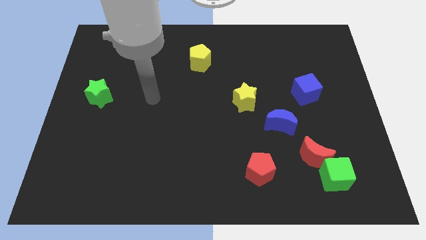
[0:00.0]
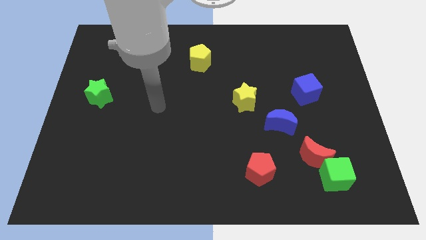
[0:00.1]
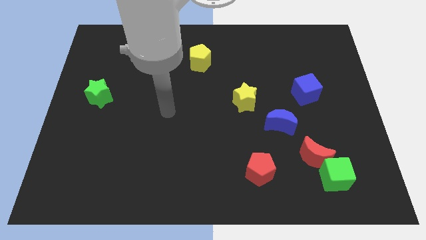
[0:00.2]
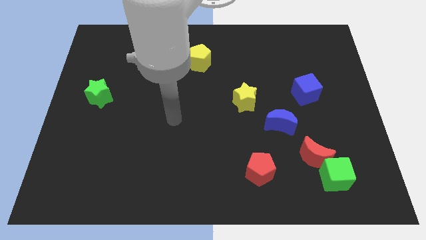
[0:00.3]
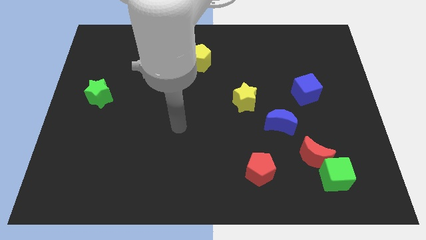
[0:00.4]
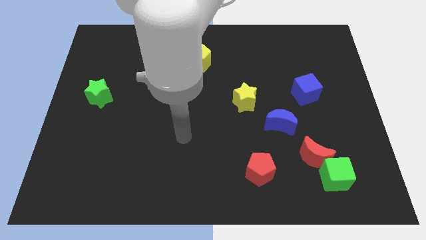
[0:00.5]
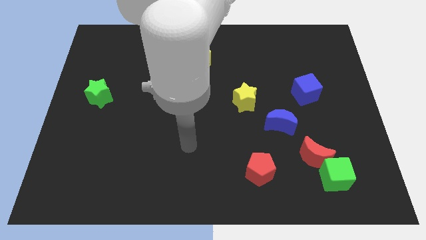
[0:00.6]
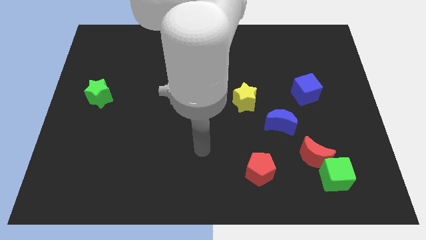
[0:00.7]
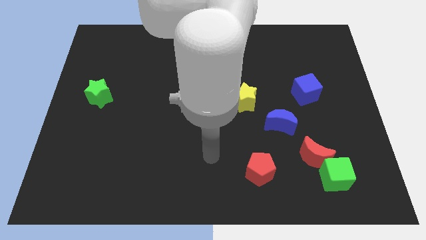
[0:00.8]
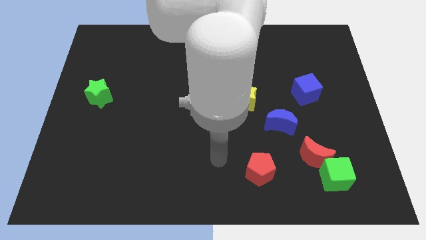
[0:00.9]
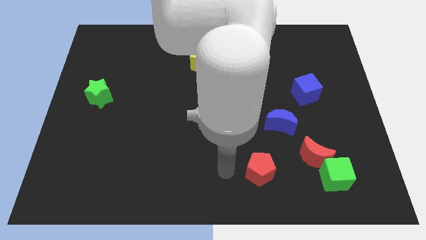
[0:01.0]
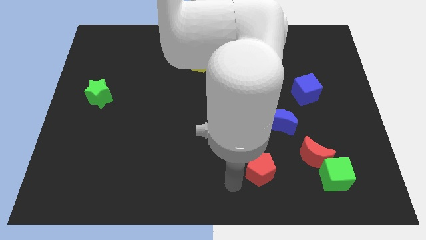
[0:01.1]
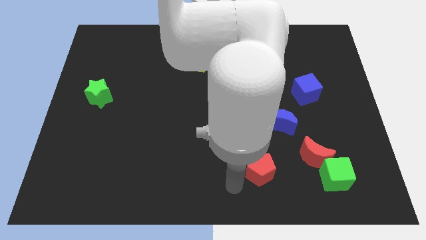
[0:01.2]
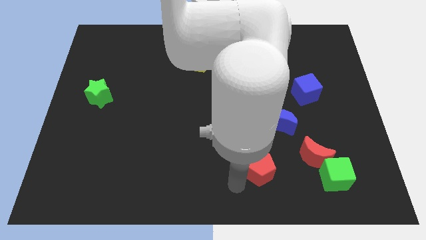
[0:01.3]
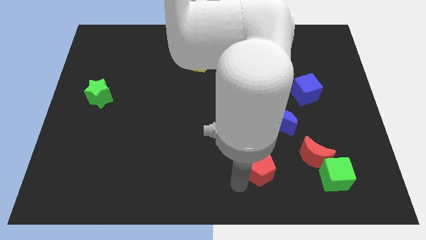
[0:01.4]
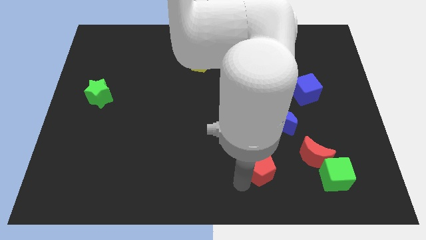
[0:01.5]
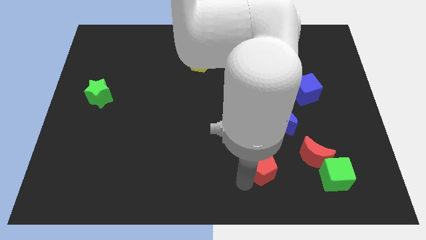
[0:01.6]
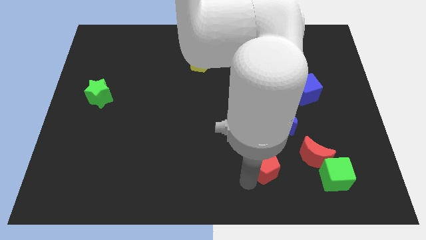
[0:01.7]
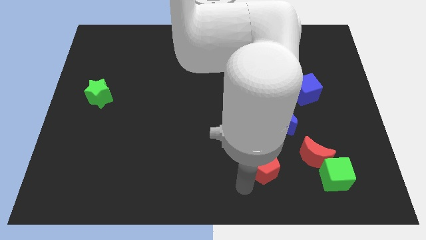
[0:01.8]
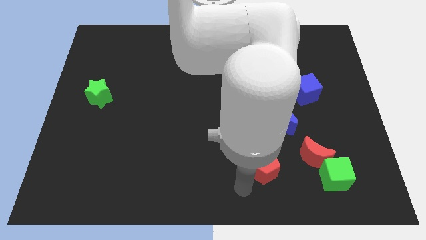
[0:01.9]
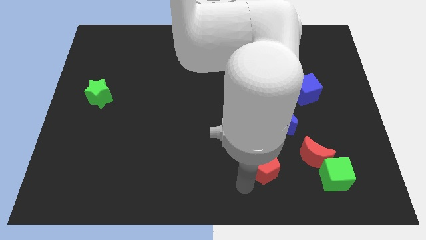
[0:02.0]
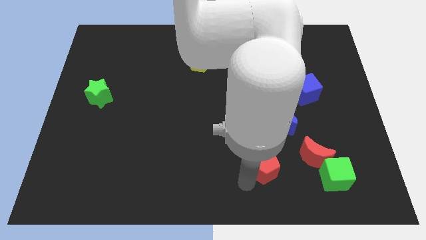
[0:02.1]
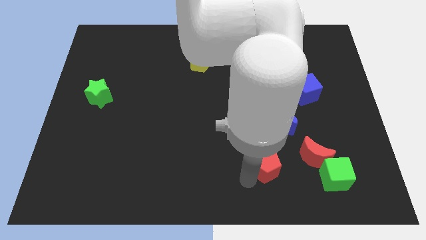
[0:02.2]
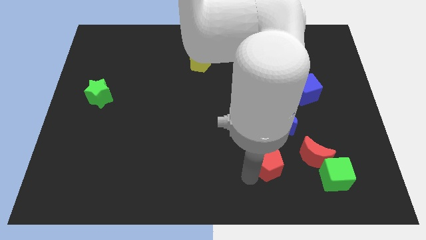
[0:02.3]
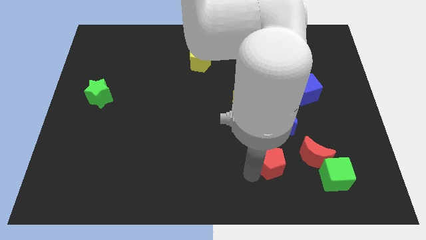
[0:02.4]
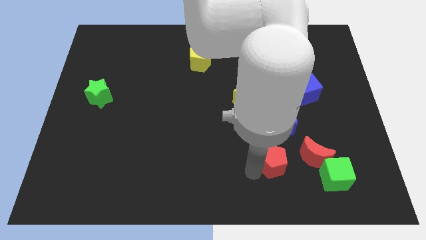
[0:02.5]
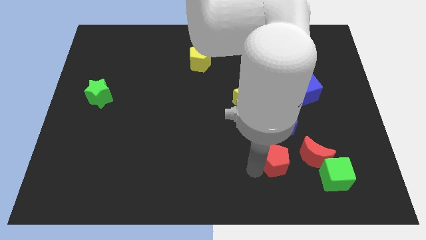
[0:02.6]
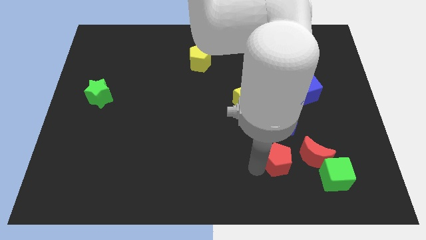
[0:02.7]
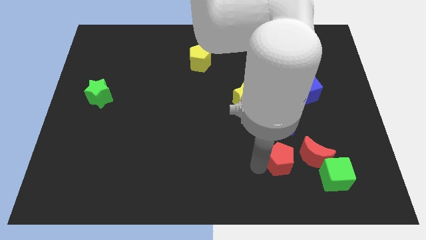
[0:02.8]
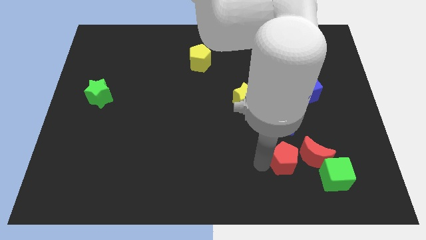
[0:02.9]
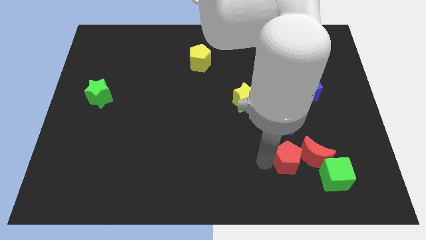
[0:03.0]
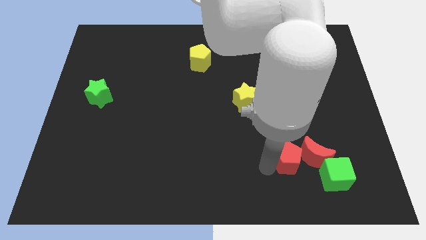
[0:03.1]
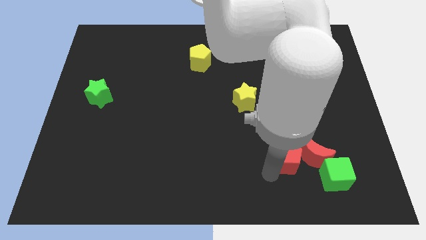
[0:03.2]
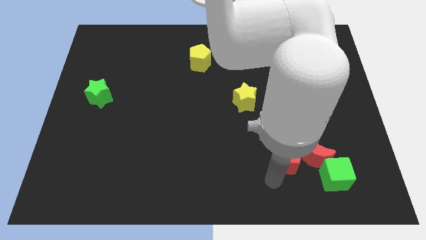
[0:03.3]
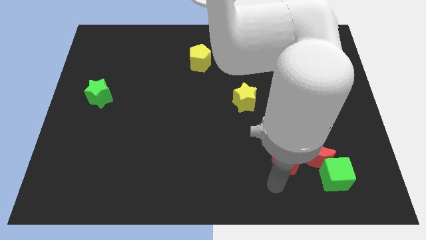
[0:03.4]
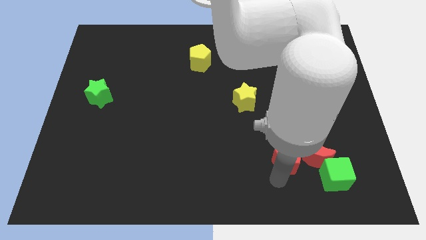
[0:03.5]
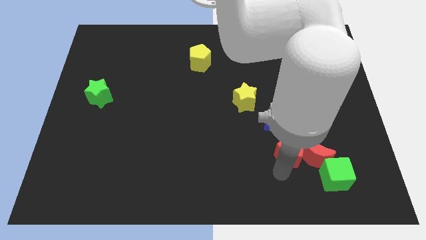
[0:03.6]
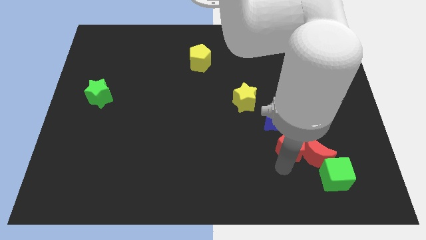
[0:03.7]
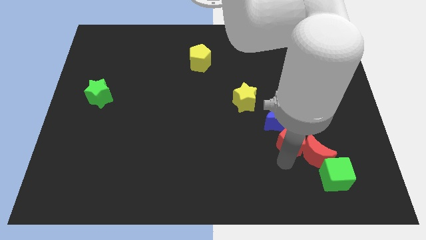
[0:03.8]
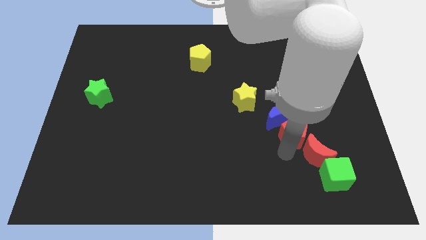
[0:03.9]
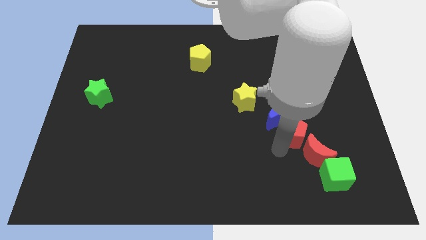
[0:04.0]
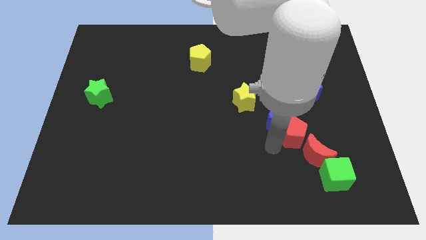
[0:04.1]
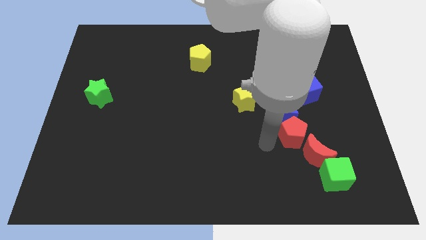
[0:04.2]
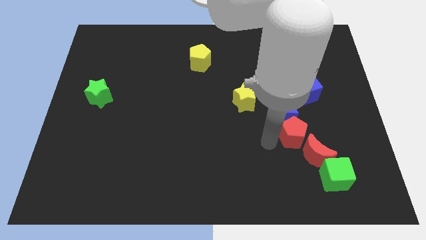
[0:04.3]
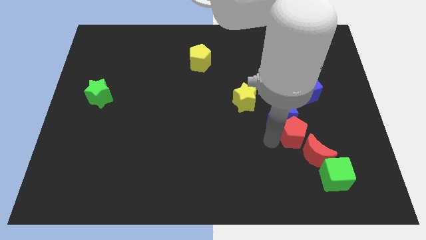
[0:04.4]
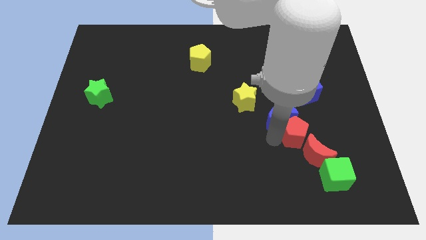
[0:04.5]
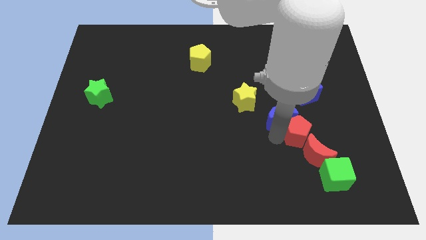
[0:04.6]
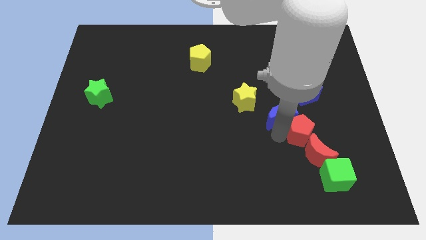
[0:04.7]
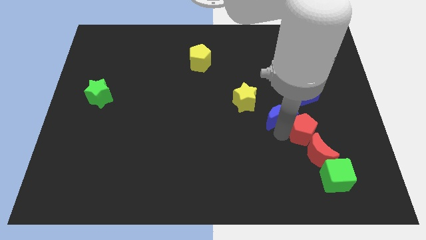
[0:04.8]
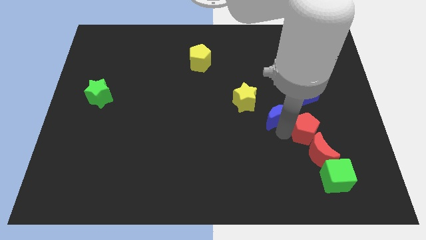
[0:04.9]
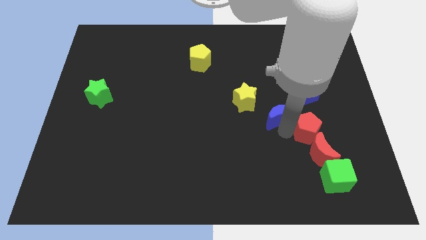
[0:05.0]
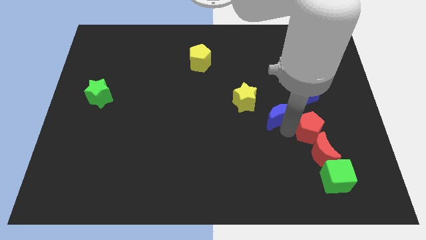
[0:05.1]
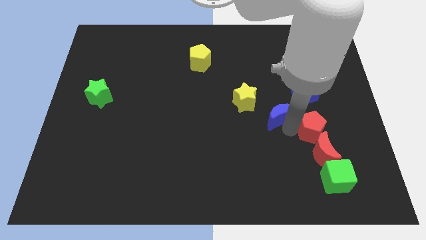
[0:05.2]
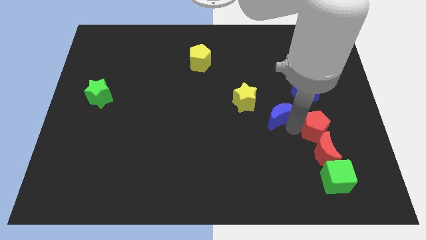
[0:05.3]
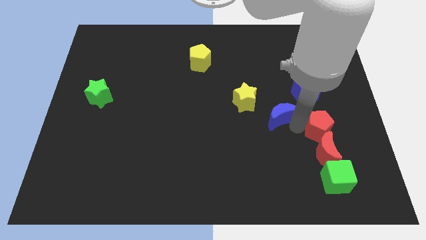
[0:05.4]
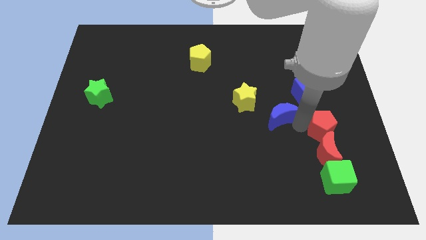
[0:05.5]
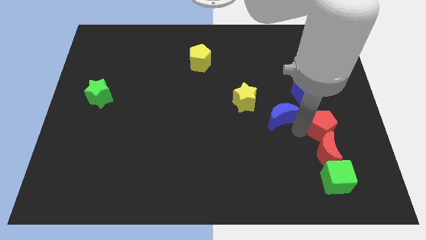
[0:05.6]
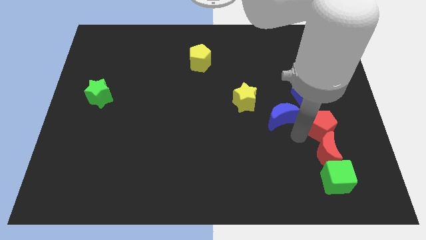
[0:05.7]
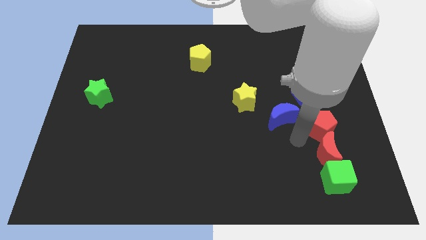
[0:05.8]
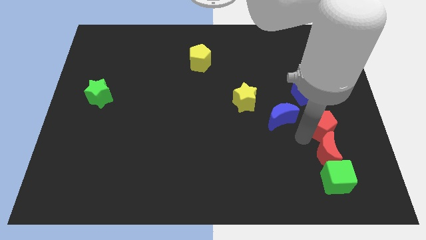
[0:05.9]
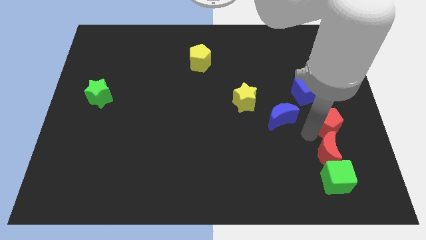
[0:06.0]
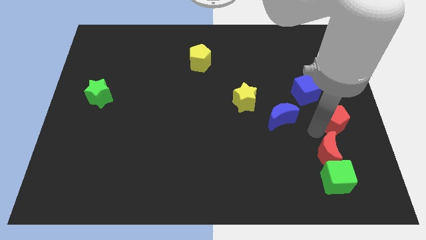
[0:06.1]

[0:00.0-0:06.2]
push the red pentagon to the center right

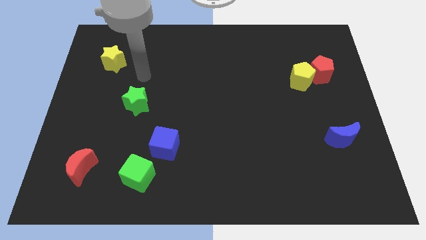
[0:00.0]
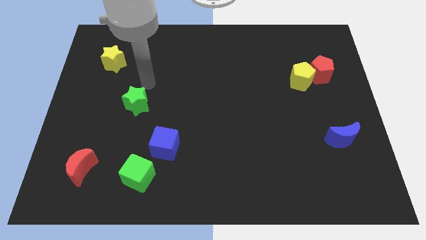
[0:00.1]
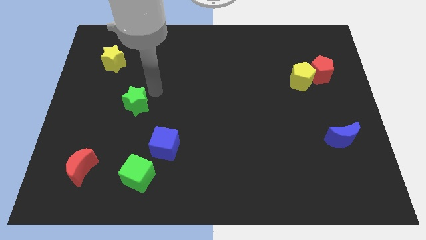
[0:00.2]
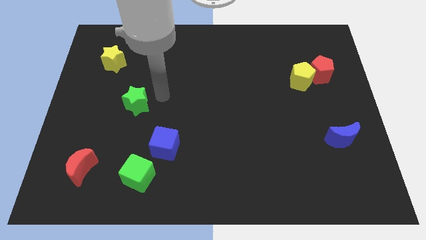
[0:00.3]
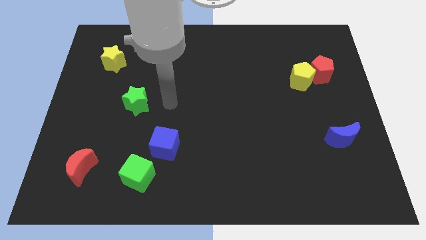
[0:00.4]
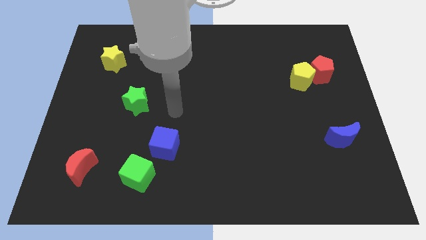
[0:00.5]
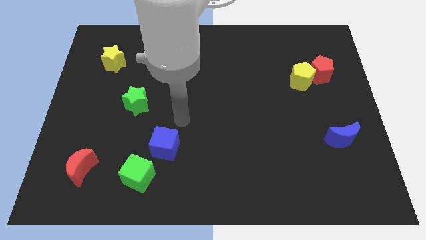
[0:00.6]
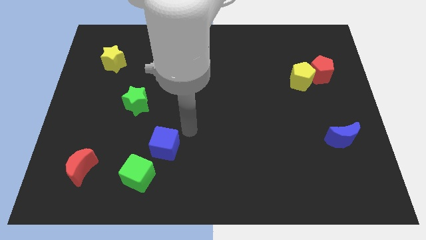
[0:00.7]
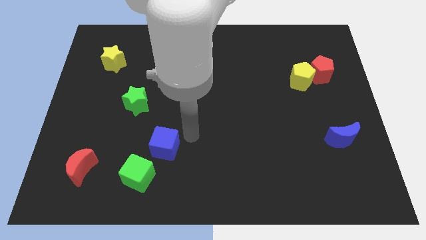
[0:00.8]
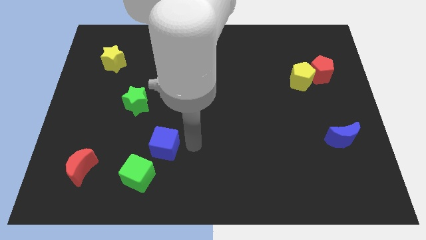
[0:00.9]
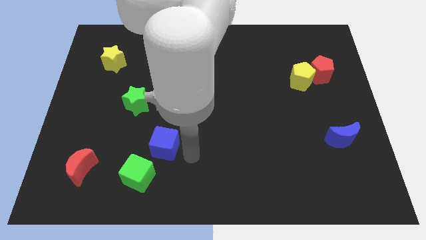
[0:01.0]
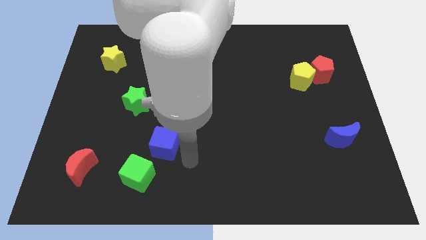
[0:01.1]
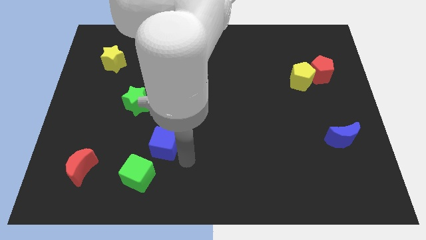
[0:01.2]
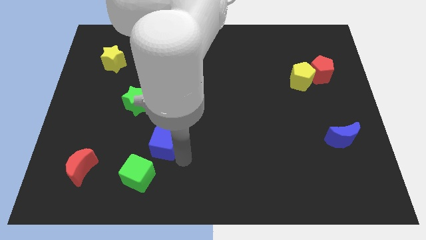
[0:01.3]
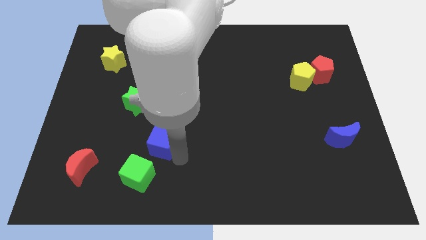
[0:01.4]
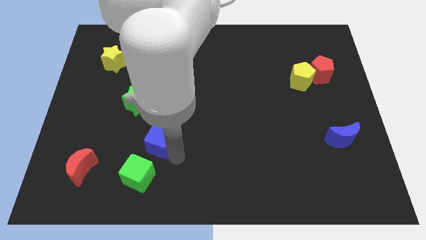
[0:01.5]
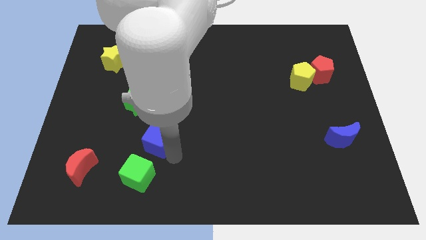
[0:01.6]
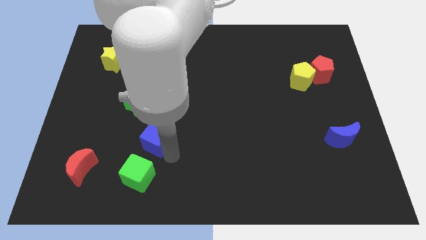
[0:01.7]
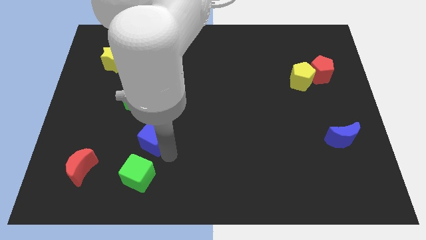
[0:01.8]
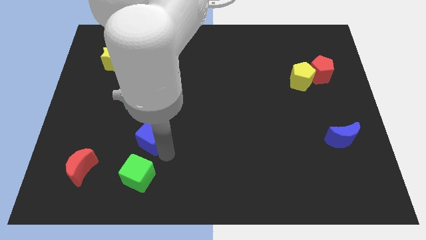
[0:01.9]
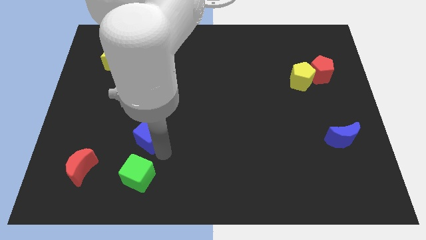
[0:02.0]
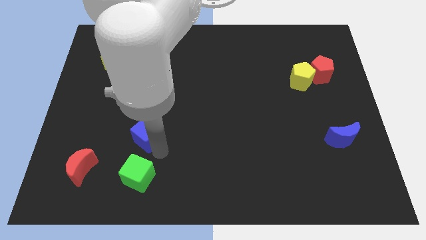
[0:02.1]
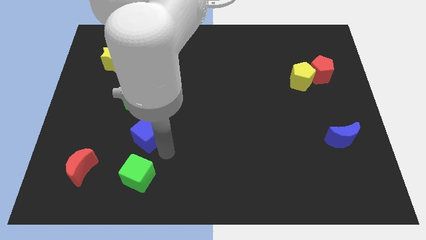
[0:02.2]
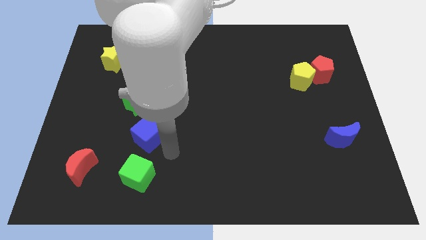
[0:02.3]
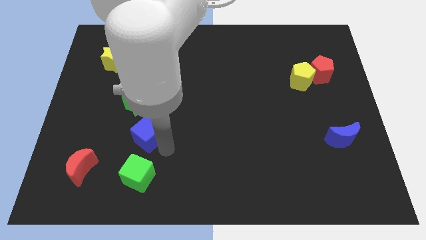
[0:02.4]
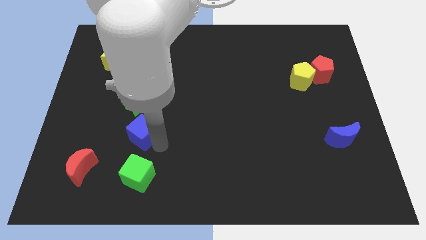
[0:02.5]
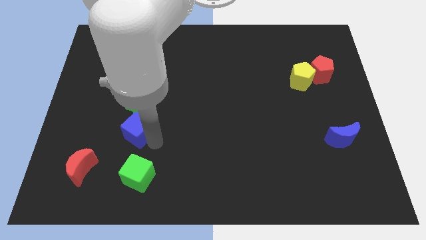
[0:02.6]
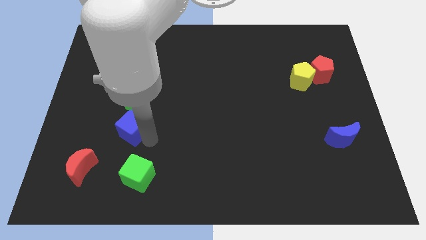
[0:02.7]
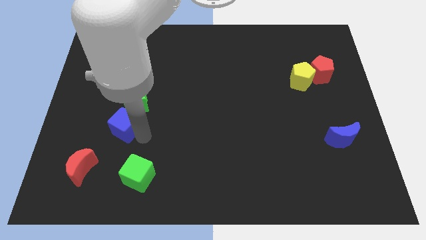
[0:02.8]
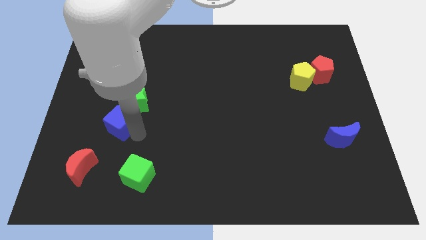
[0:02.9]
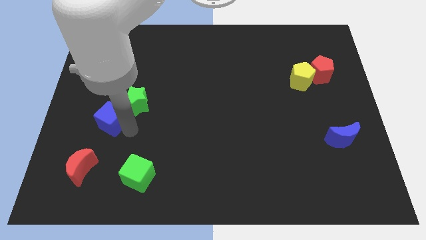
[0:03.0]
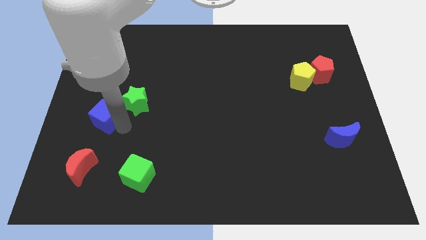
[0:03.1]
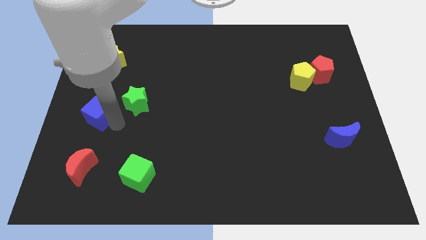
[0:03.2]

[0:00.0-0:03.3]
move the blue cube to the center left
